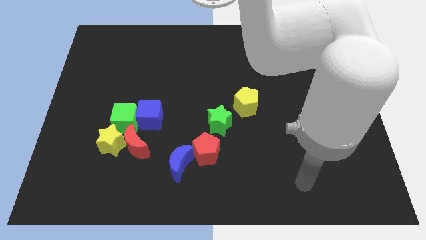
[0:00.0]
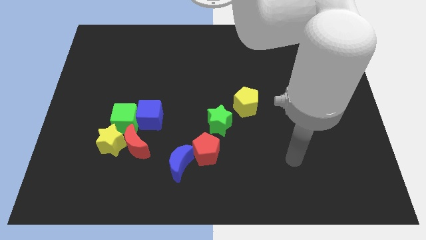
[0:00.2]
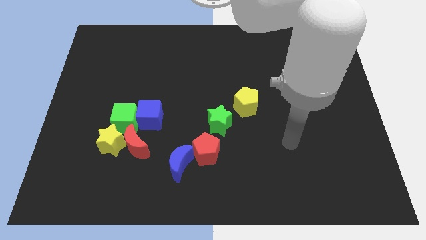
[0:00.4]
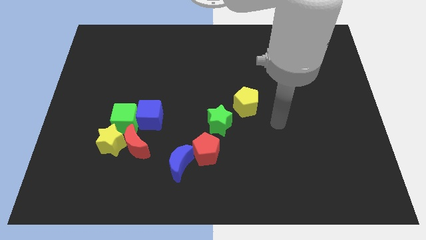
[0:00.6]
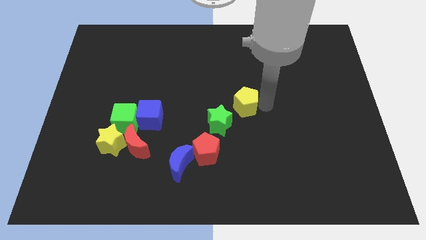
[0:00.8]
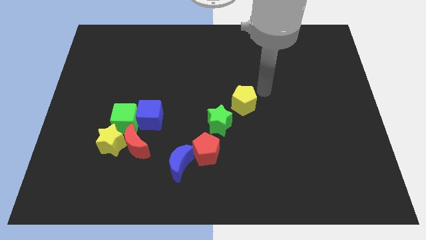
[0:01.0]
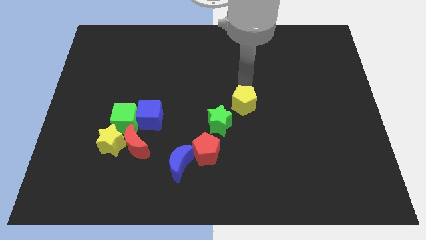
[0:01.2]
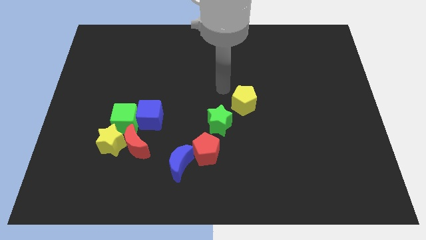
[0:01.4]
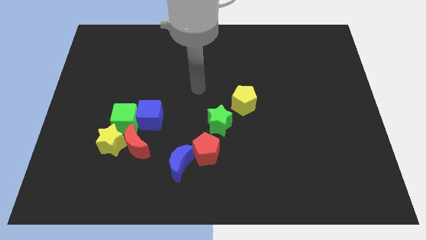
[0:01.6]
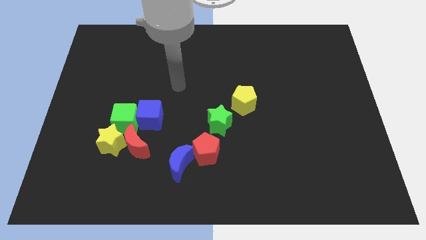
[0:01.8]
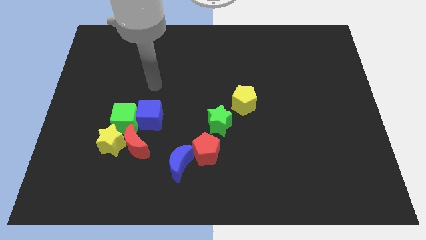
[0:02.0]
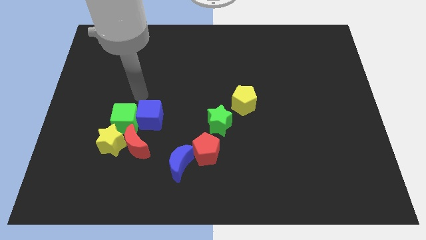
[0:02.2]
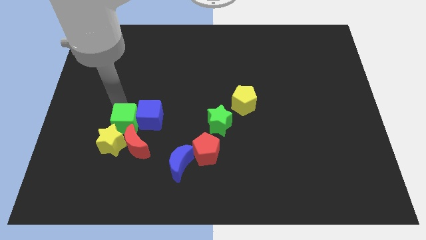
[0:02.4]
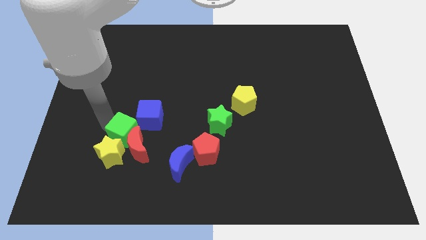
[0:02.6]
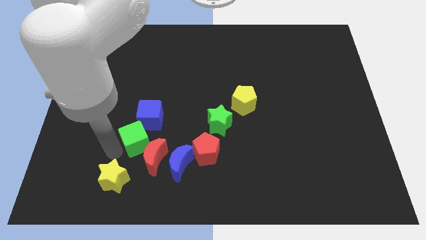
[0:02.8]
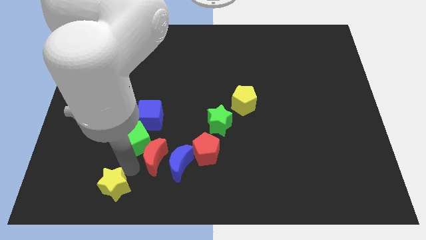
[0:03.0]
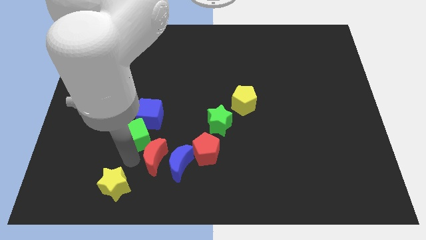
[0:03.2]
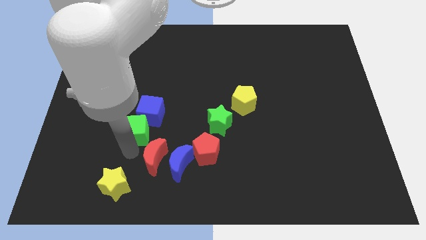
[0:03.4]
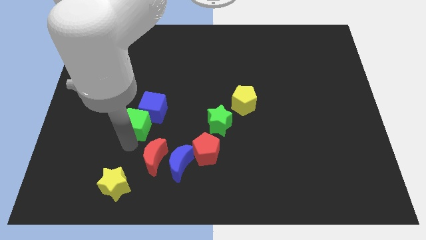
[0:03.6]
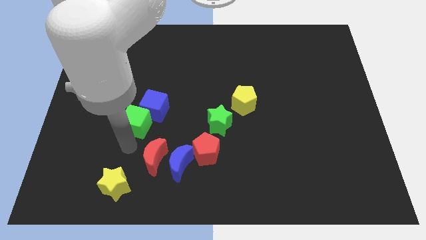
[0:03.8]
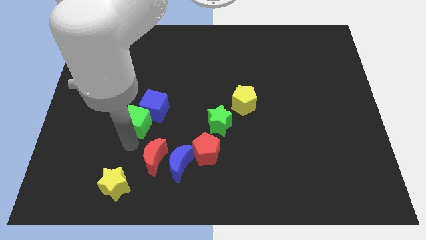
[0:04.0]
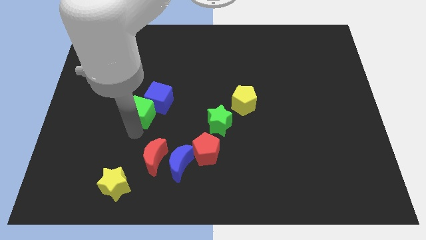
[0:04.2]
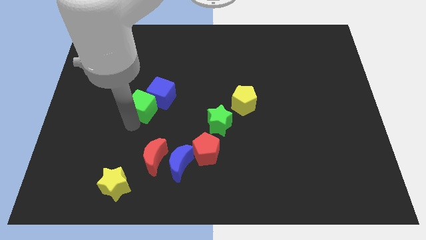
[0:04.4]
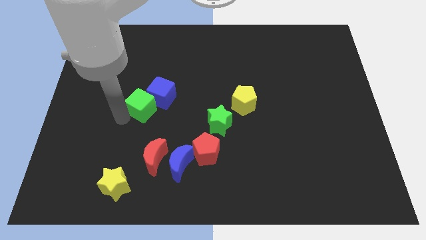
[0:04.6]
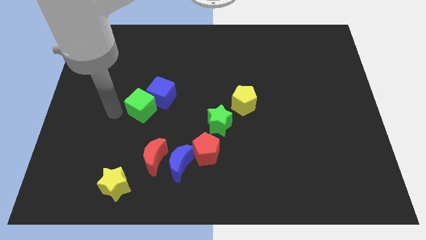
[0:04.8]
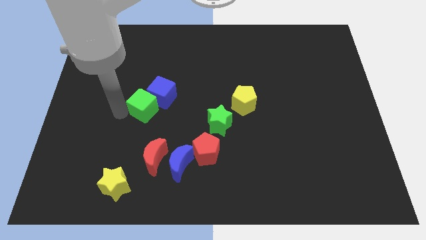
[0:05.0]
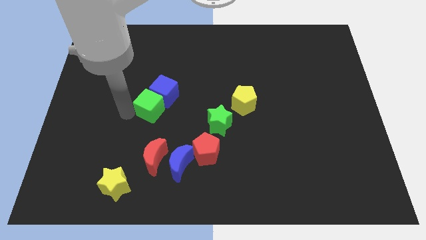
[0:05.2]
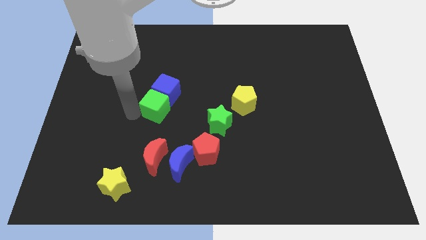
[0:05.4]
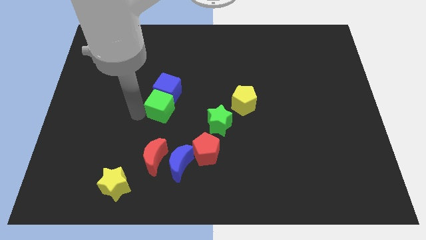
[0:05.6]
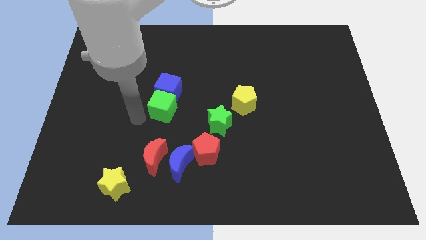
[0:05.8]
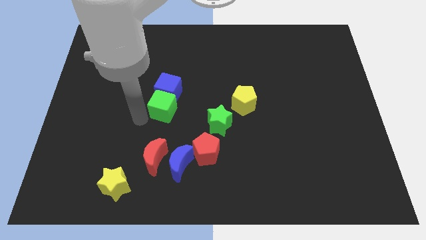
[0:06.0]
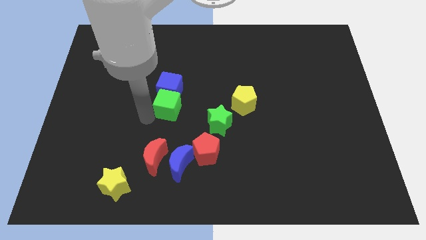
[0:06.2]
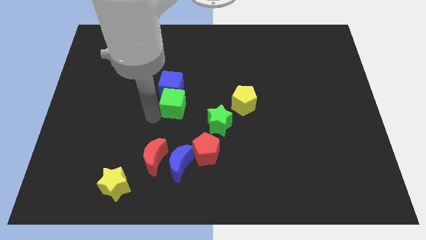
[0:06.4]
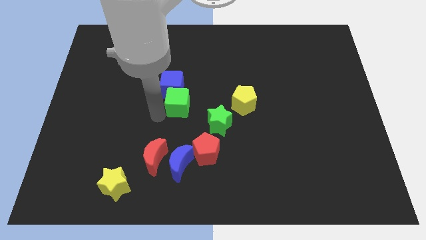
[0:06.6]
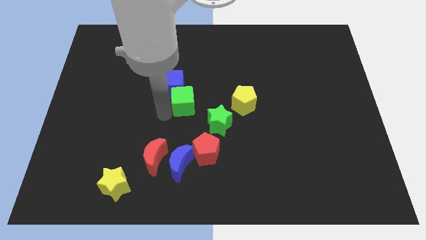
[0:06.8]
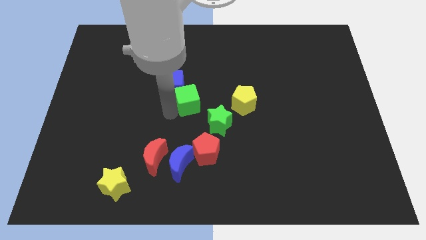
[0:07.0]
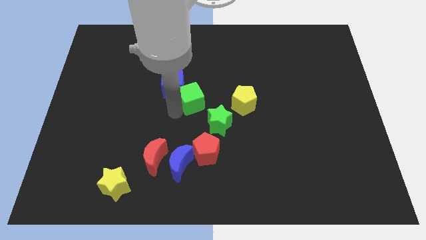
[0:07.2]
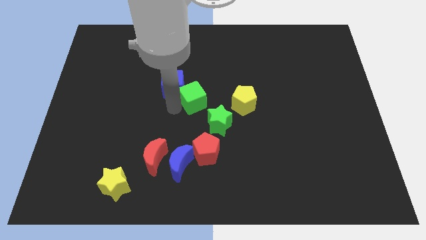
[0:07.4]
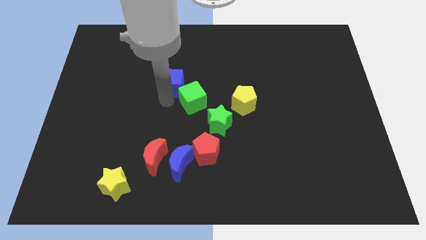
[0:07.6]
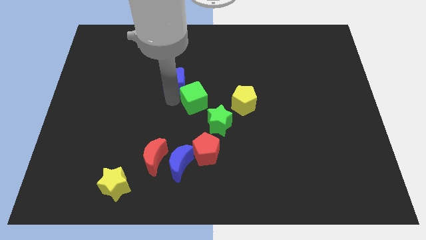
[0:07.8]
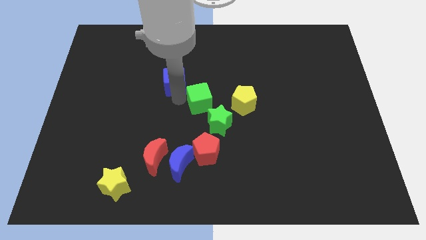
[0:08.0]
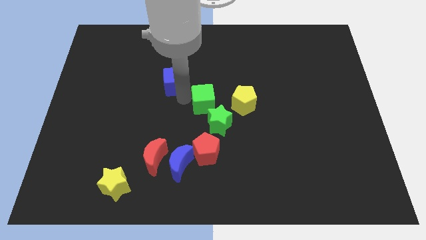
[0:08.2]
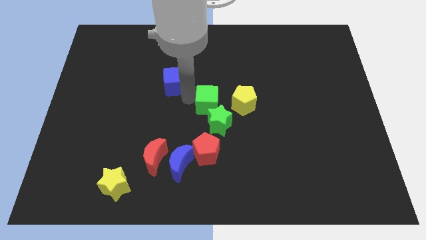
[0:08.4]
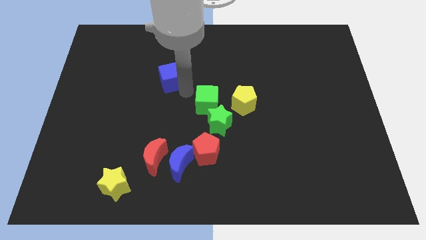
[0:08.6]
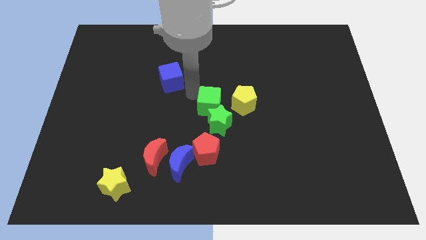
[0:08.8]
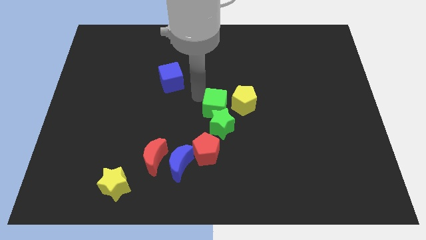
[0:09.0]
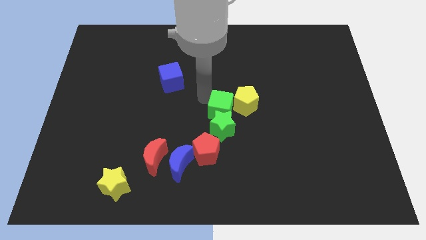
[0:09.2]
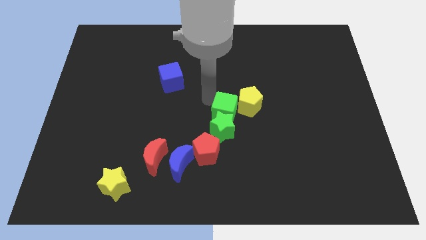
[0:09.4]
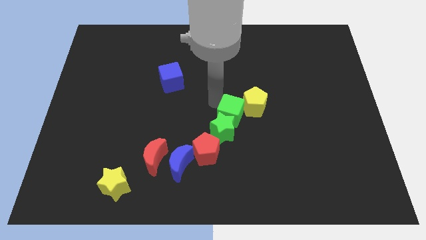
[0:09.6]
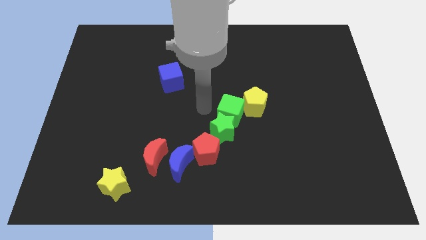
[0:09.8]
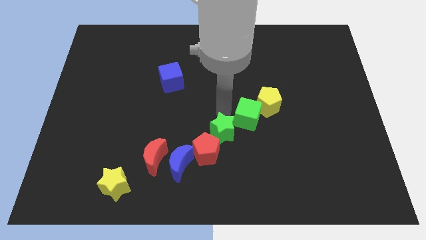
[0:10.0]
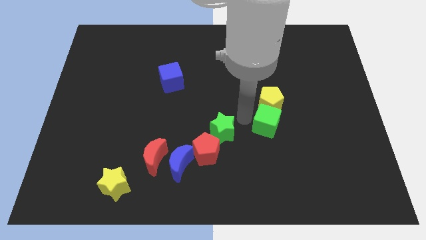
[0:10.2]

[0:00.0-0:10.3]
slide the green cube to the bottom right of the yellow pentagon

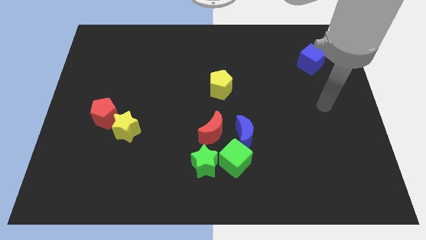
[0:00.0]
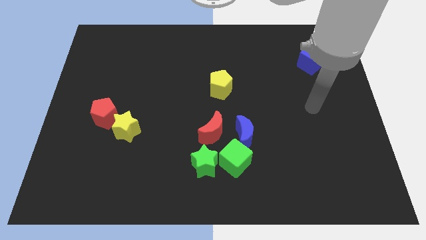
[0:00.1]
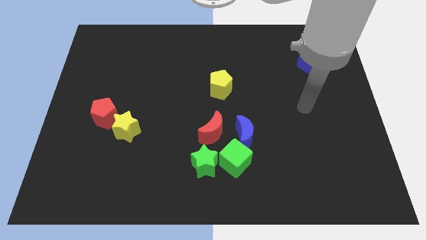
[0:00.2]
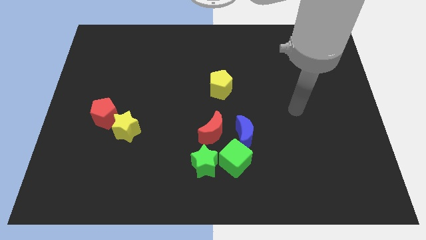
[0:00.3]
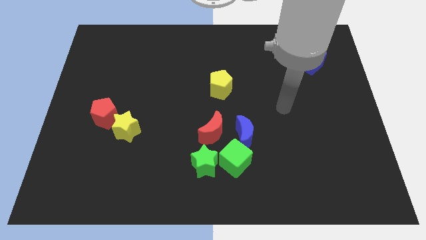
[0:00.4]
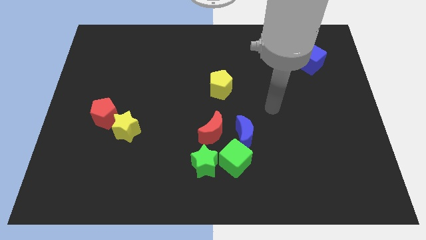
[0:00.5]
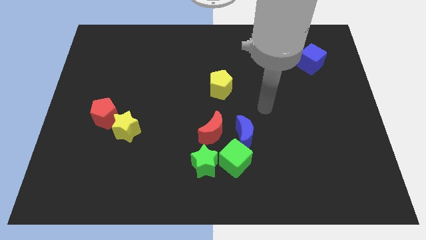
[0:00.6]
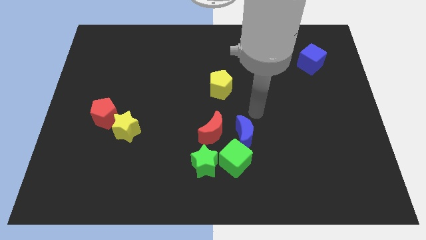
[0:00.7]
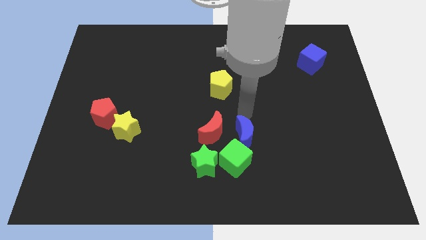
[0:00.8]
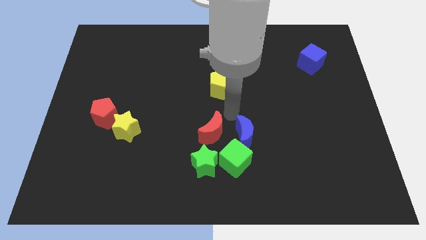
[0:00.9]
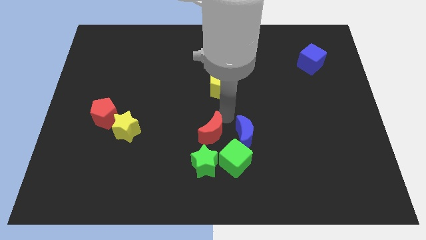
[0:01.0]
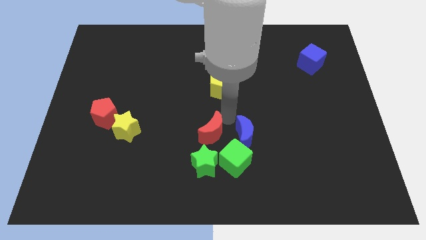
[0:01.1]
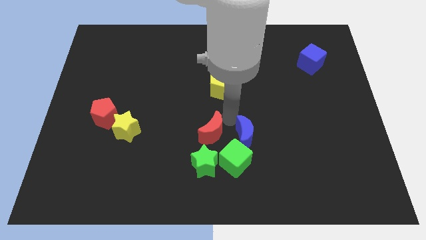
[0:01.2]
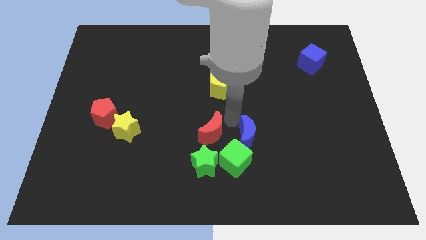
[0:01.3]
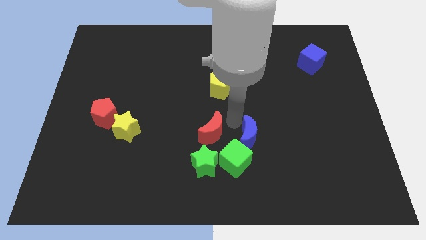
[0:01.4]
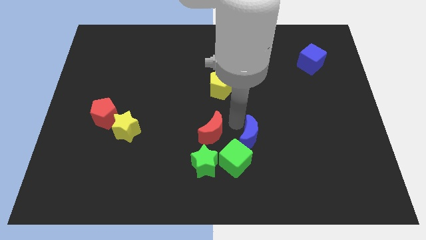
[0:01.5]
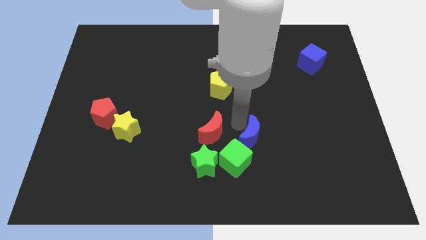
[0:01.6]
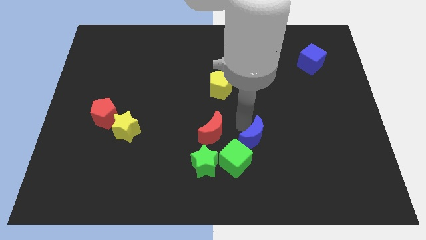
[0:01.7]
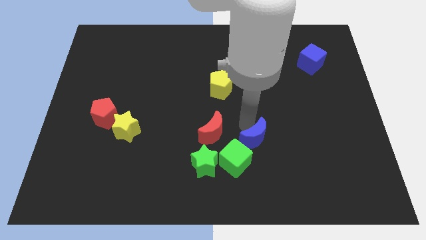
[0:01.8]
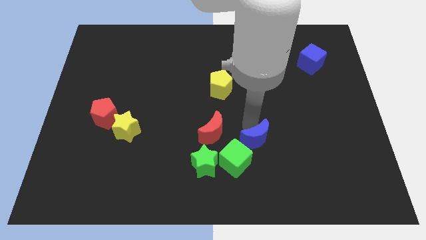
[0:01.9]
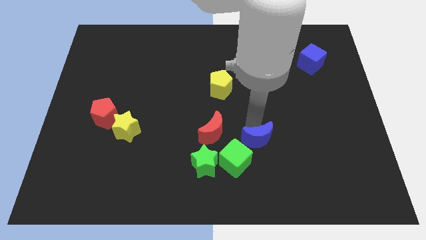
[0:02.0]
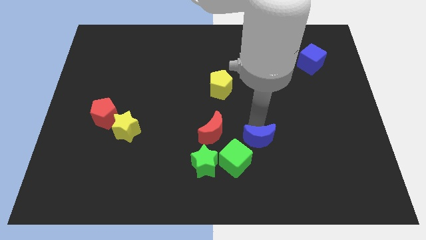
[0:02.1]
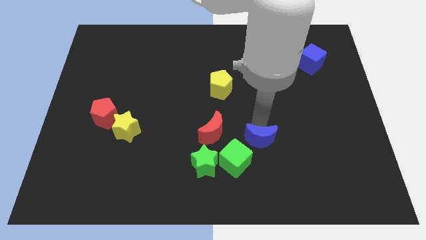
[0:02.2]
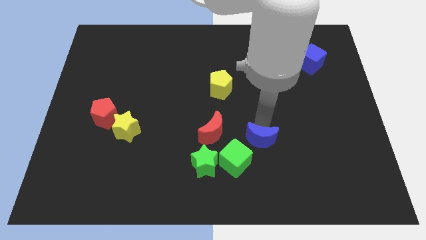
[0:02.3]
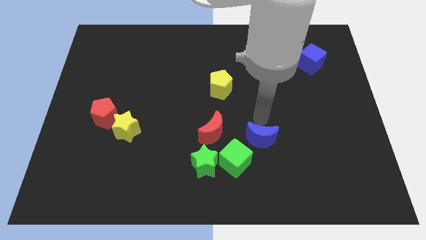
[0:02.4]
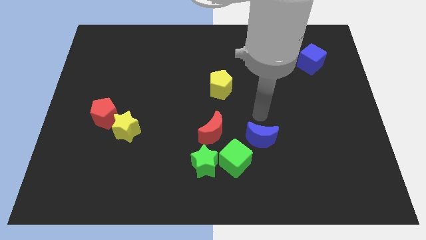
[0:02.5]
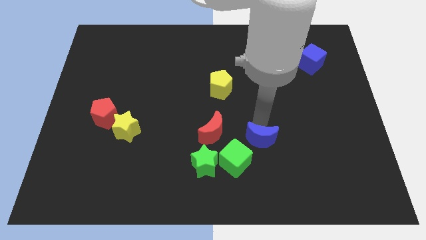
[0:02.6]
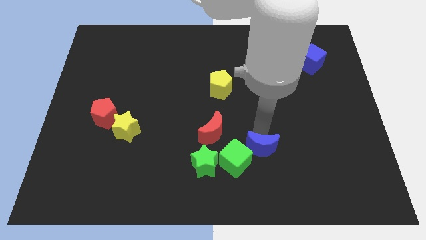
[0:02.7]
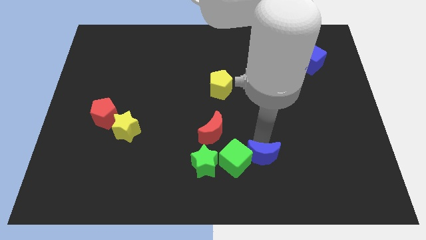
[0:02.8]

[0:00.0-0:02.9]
slide the blue moon diagonally down and to the right of the green cube
